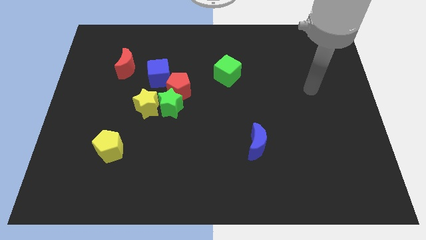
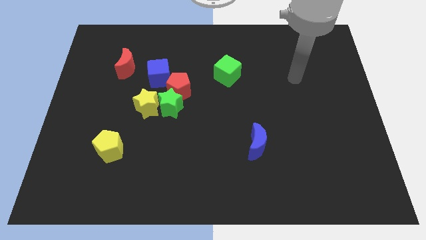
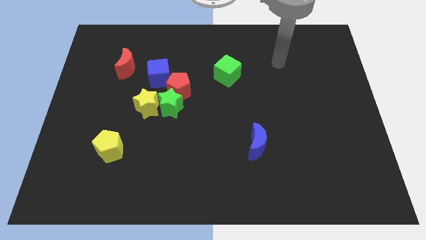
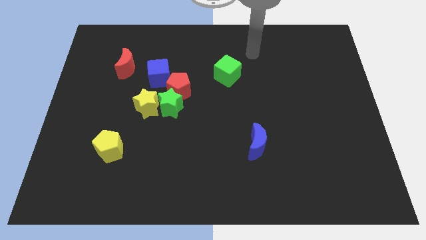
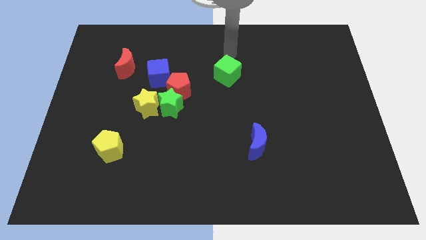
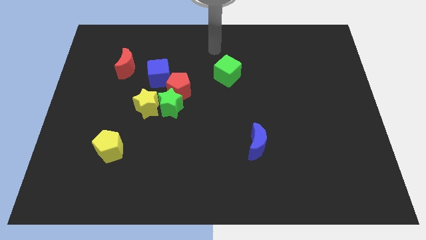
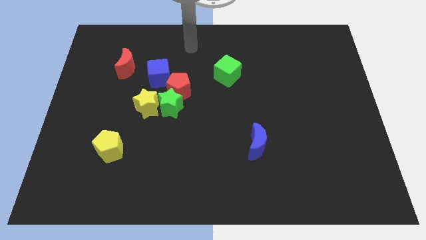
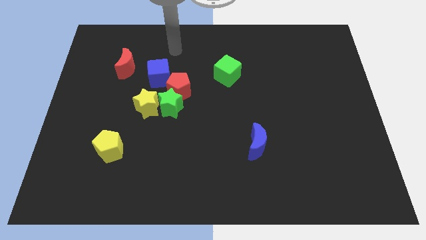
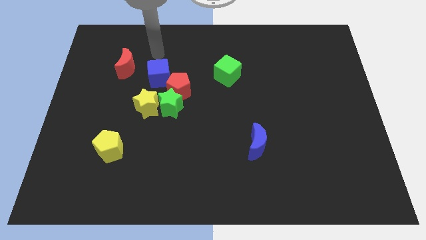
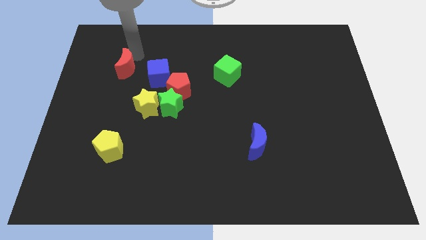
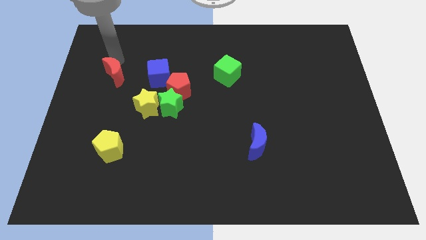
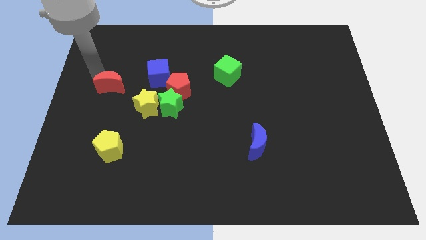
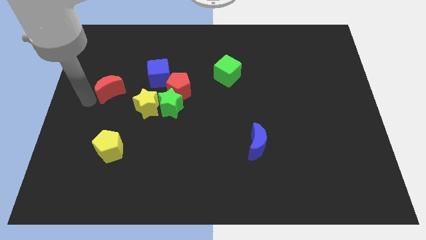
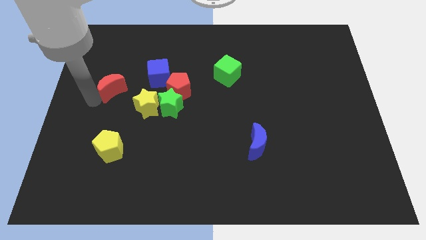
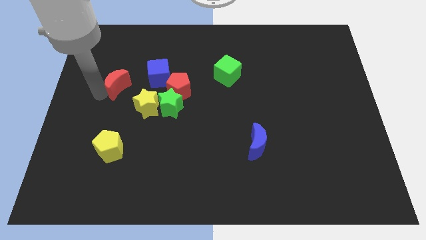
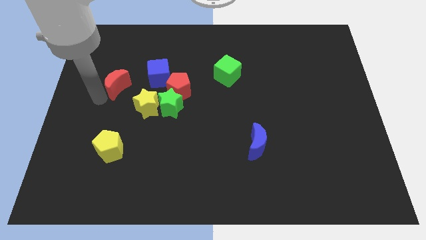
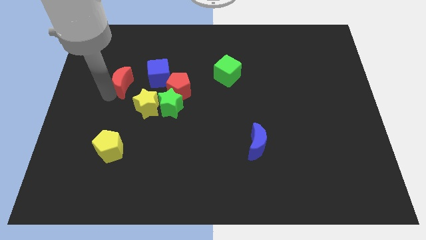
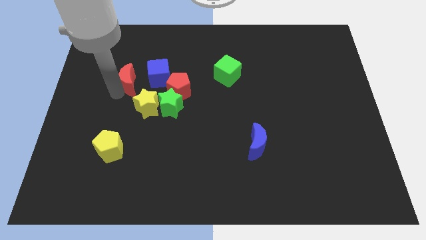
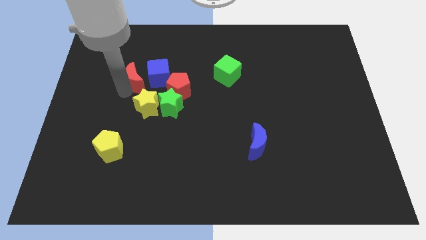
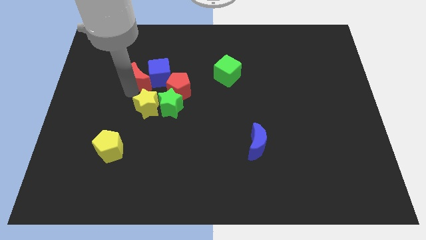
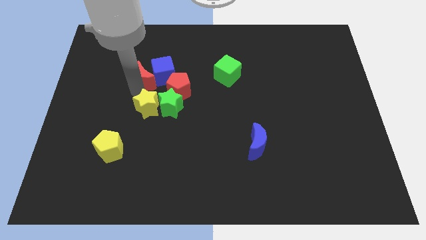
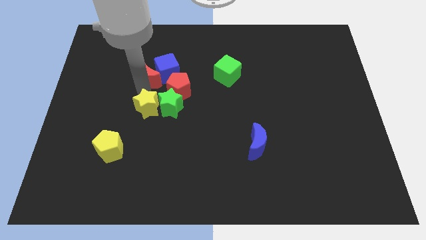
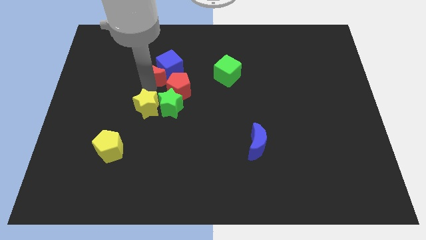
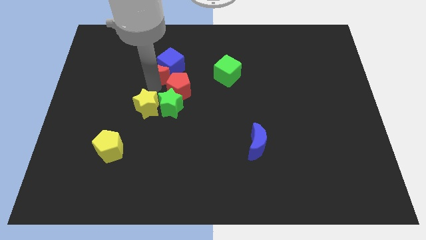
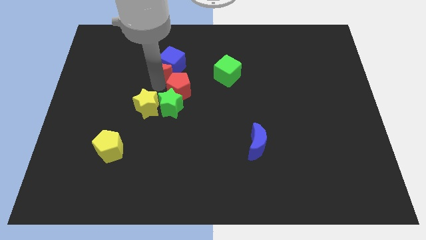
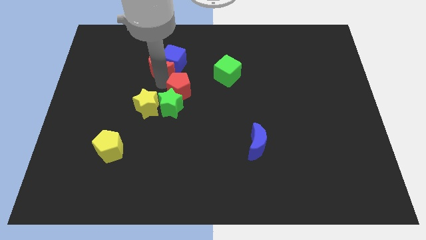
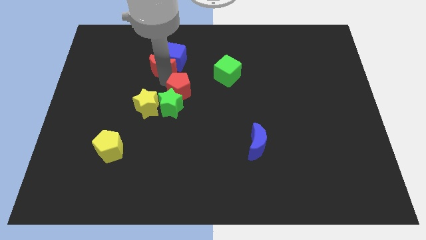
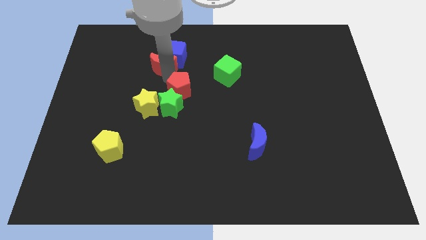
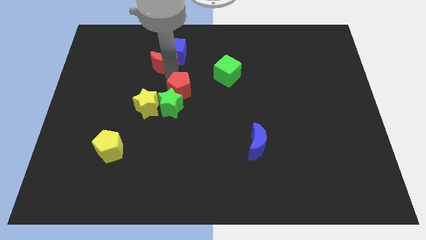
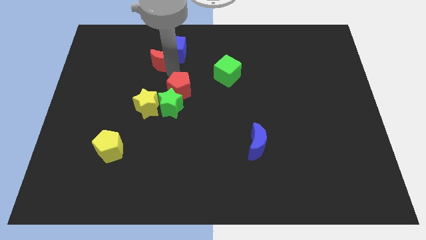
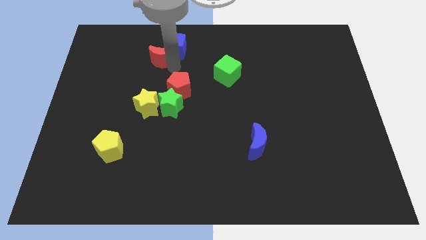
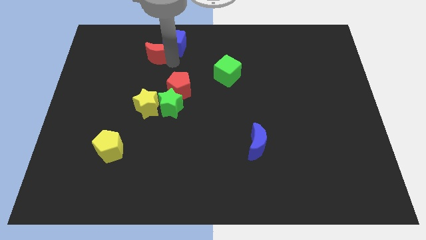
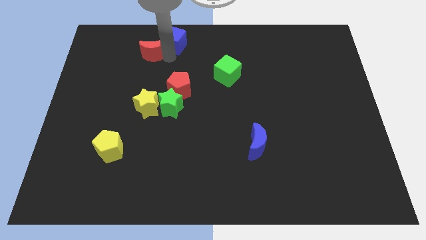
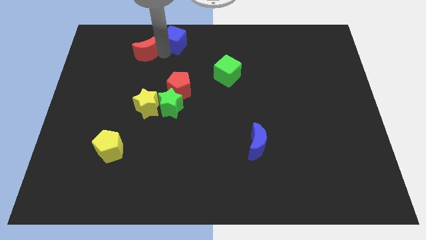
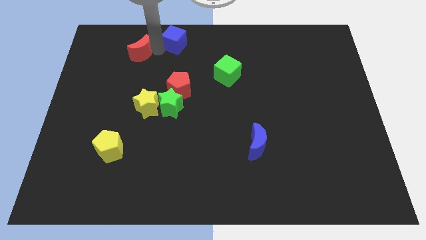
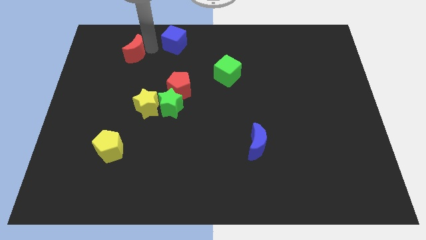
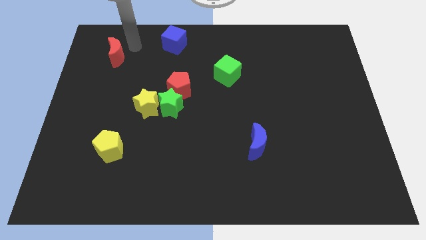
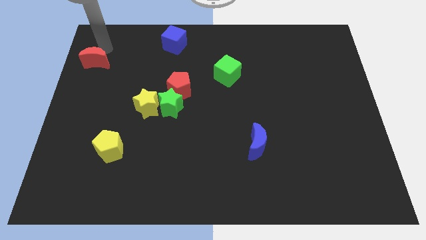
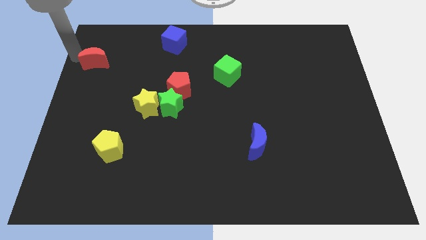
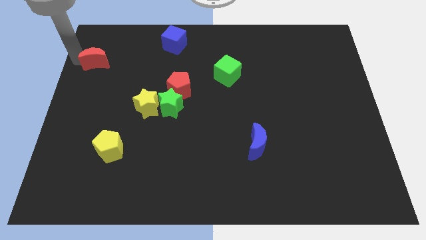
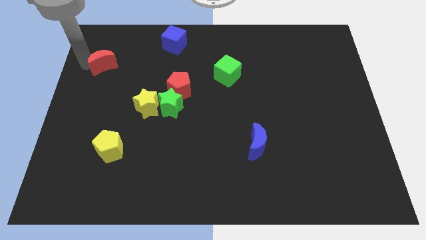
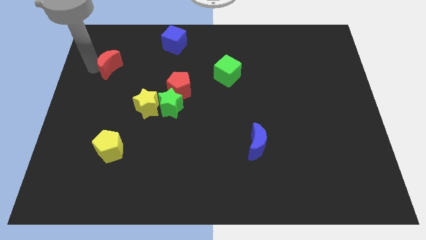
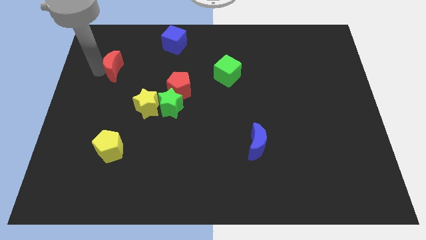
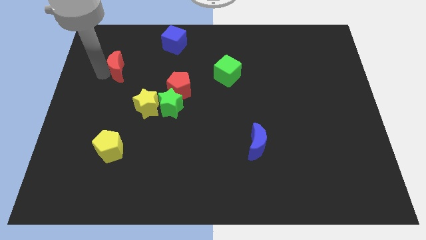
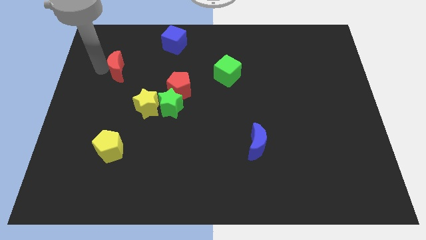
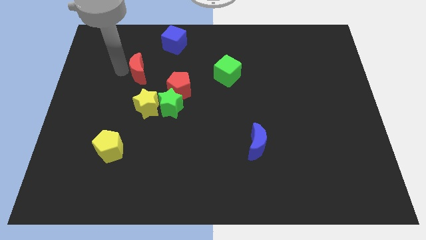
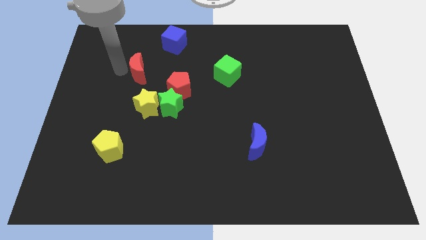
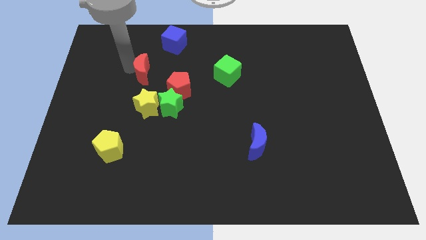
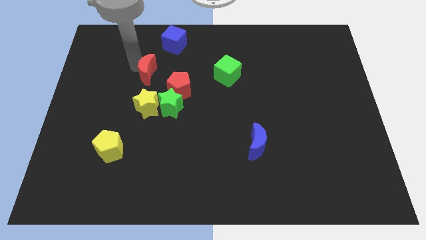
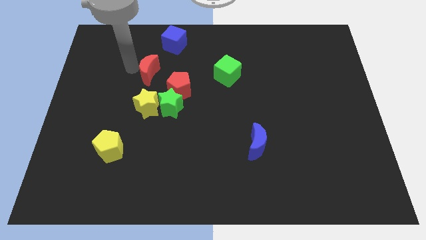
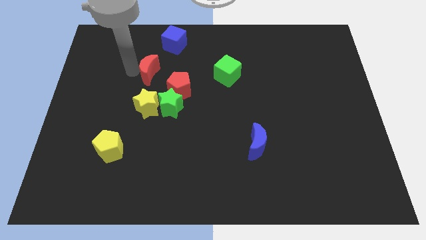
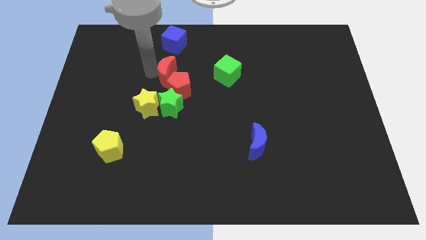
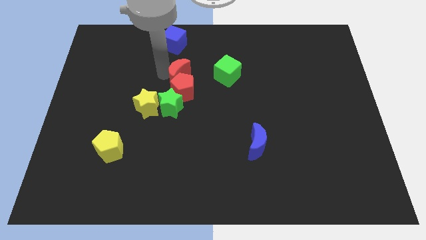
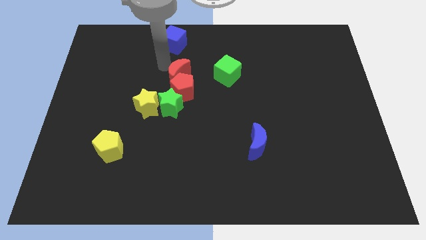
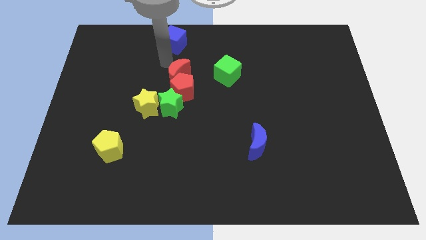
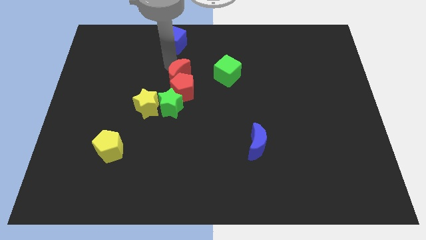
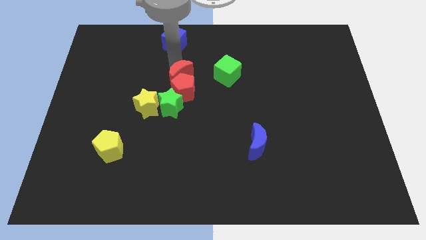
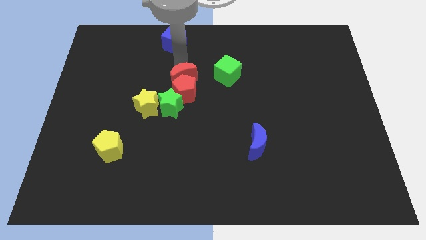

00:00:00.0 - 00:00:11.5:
slide the red moon diagonally up and to the right of the green star

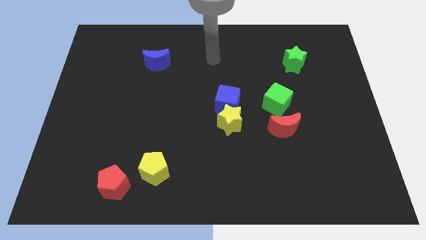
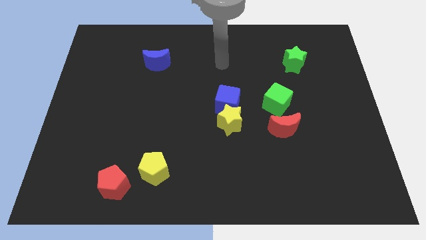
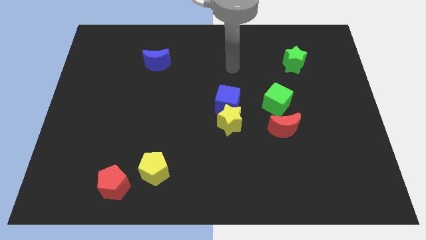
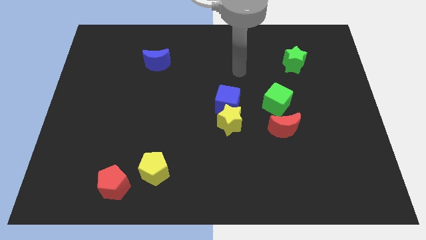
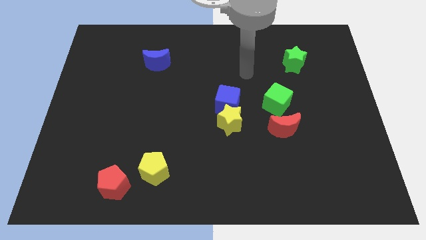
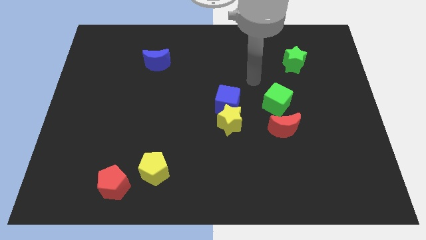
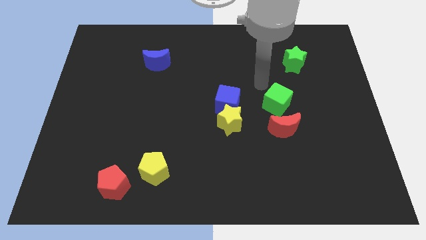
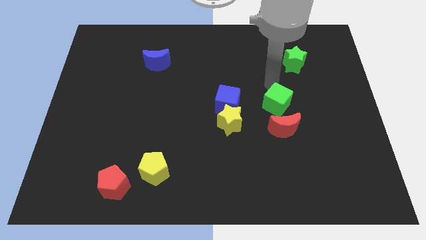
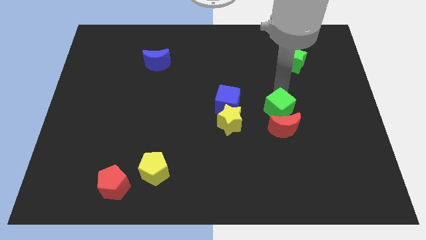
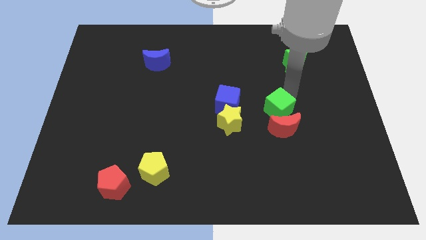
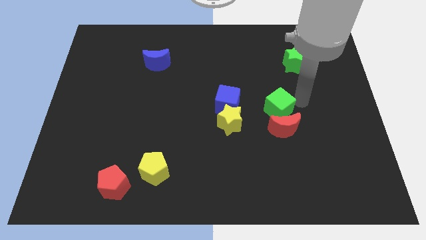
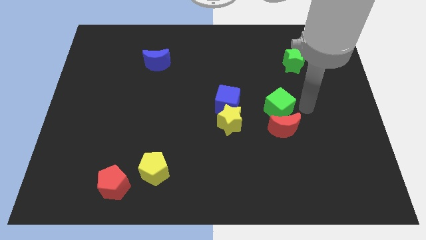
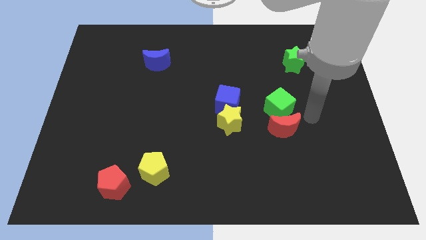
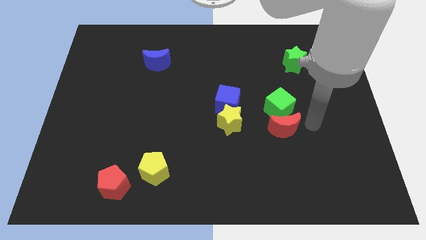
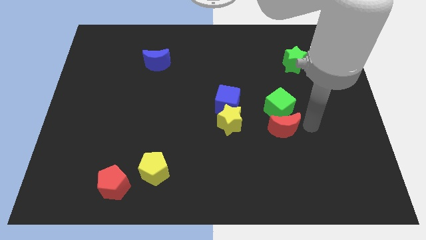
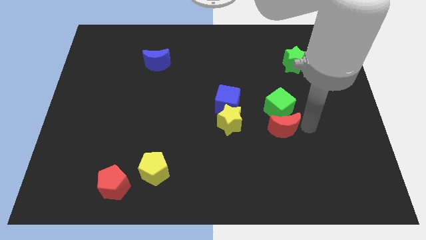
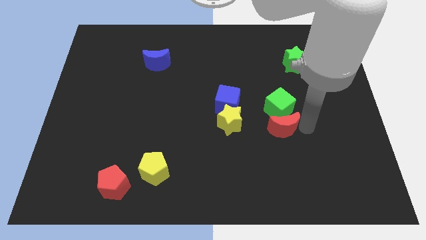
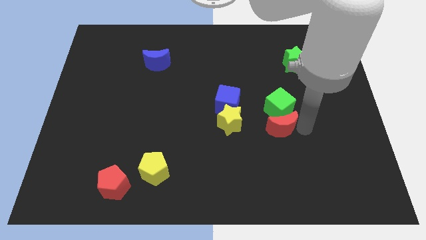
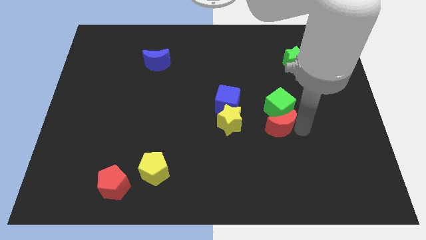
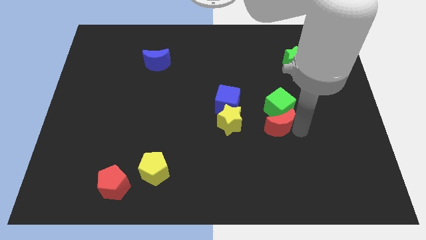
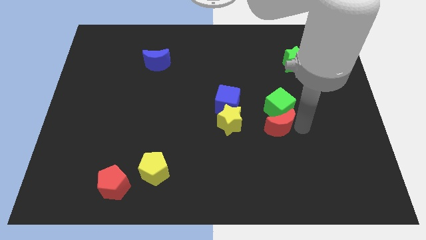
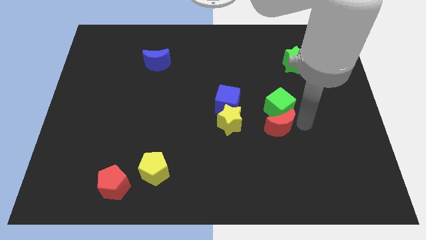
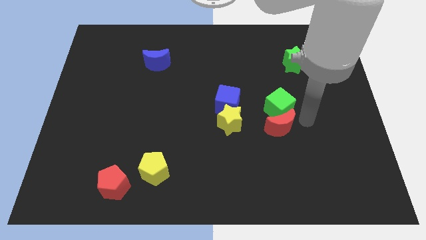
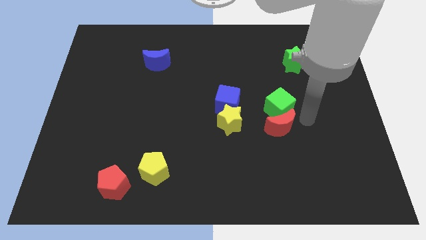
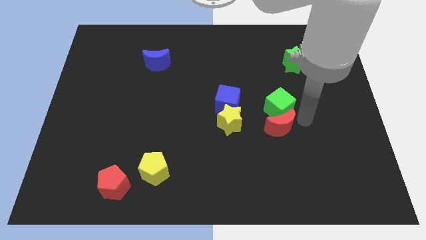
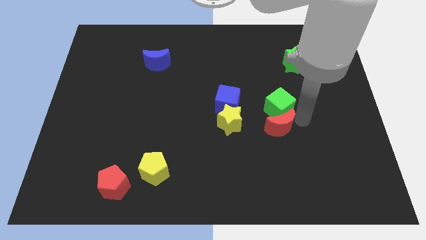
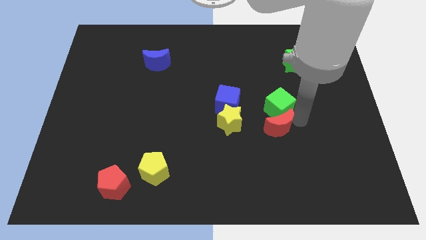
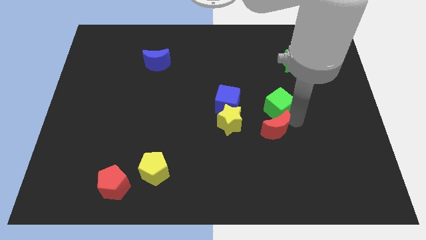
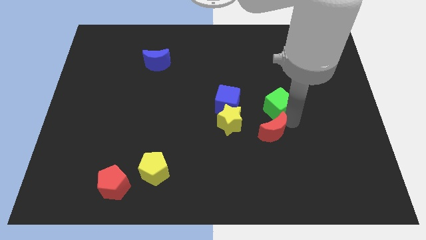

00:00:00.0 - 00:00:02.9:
move the red moon to the bottom right side of the blue cube
